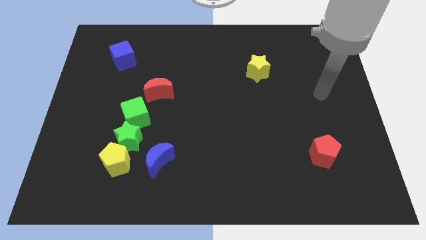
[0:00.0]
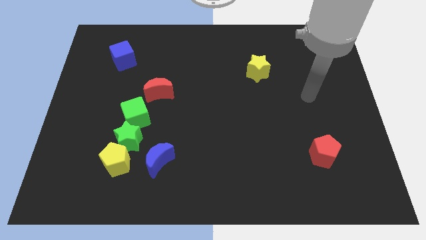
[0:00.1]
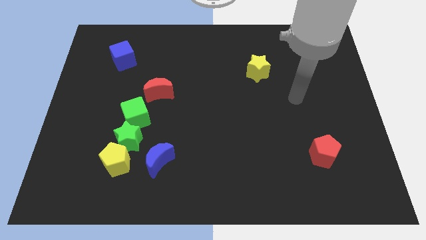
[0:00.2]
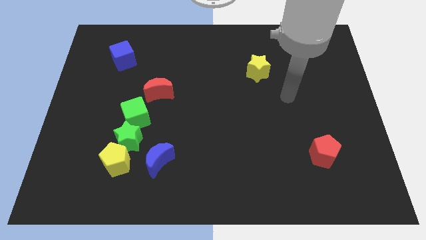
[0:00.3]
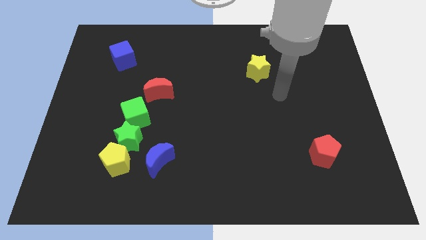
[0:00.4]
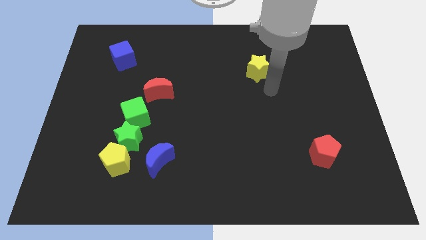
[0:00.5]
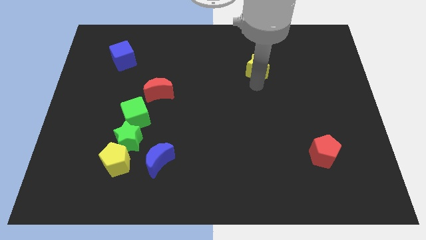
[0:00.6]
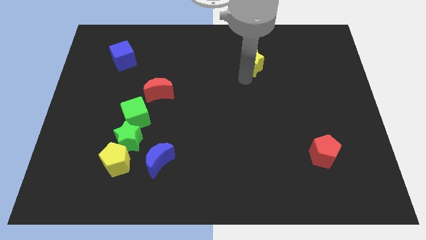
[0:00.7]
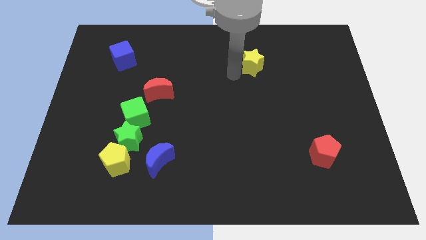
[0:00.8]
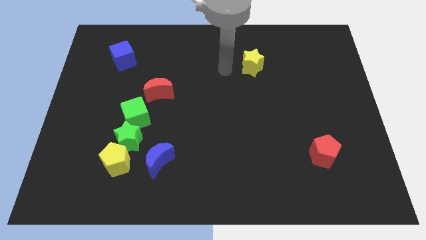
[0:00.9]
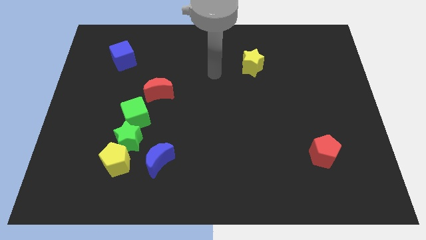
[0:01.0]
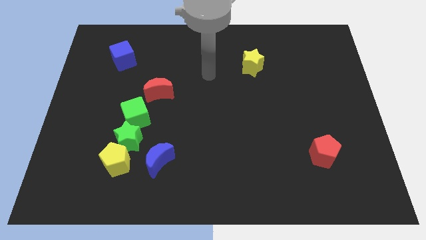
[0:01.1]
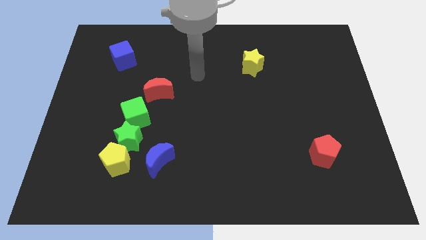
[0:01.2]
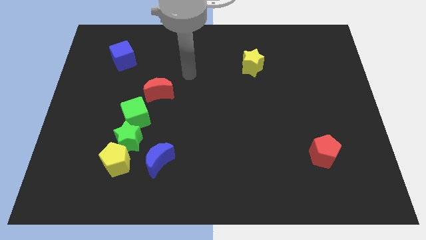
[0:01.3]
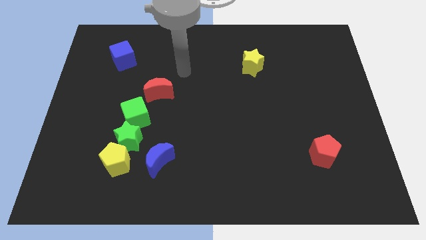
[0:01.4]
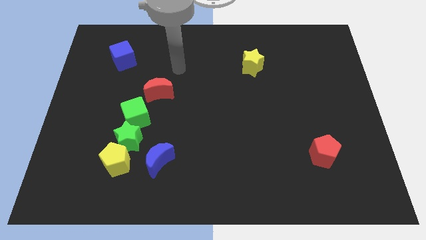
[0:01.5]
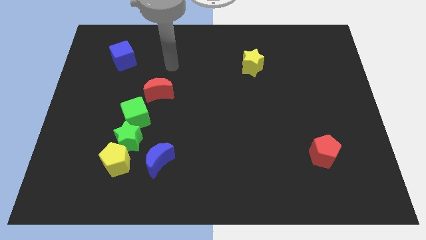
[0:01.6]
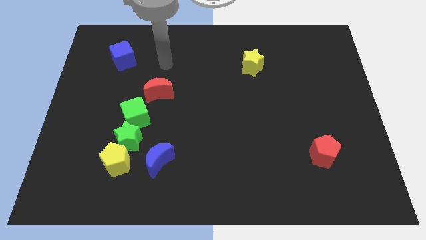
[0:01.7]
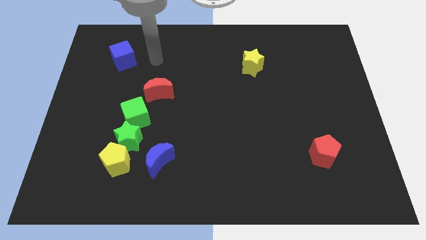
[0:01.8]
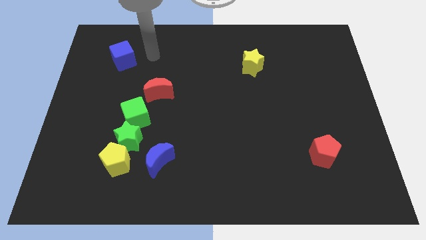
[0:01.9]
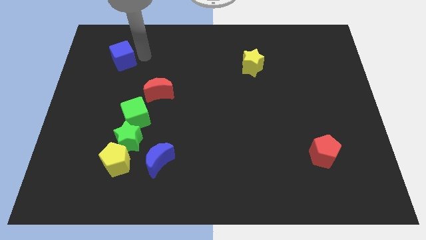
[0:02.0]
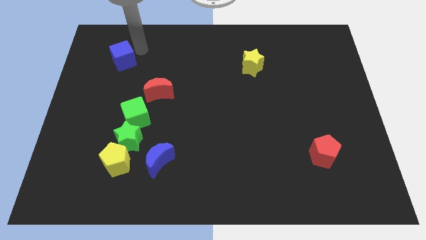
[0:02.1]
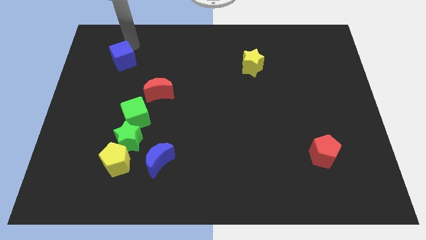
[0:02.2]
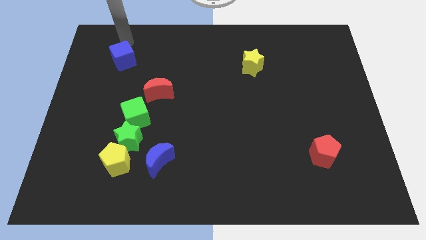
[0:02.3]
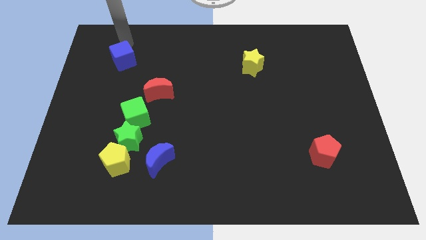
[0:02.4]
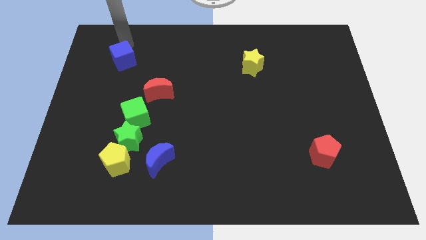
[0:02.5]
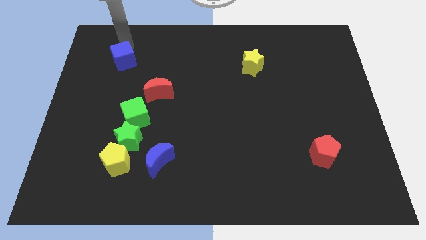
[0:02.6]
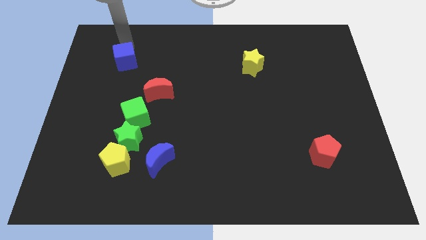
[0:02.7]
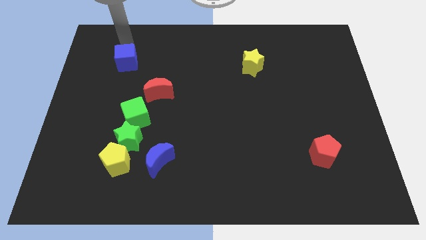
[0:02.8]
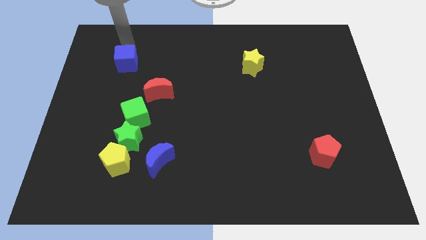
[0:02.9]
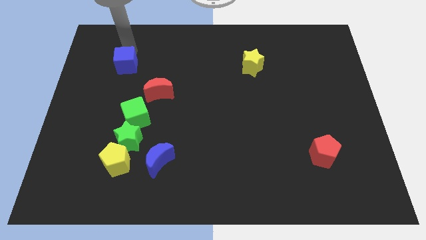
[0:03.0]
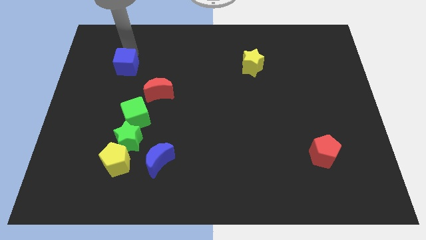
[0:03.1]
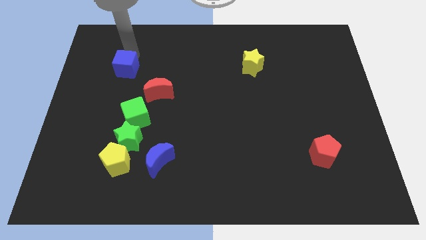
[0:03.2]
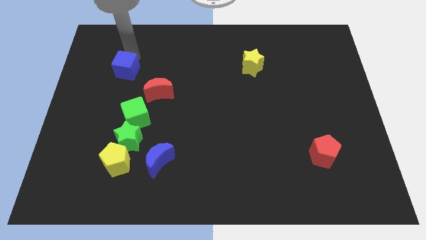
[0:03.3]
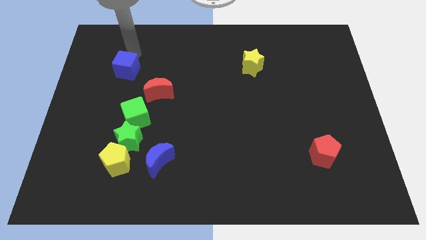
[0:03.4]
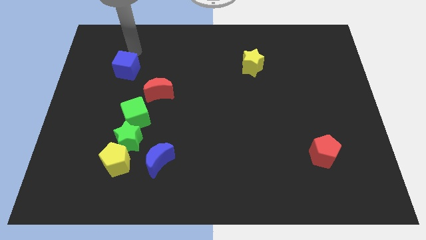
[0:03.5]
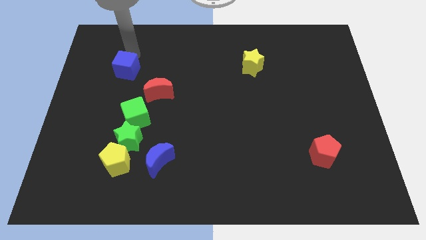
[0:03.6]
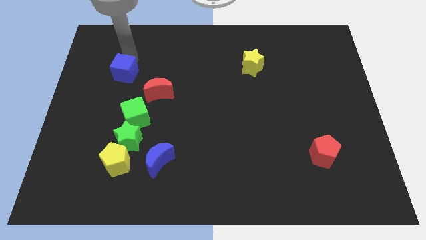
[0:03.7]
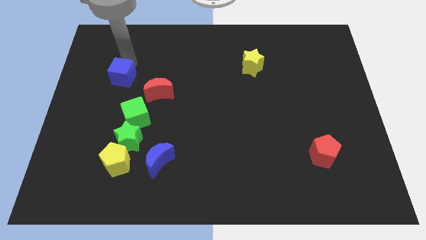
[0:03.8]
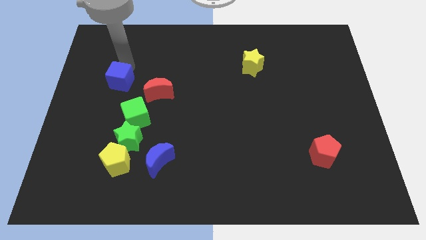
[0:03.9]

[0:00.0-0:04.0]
slide the blue cube a little bit down

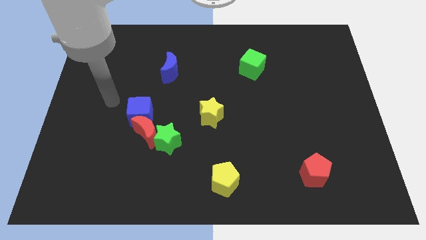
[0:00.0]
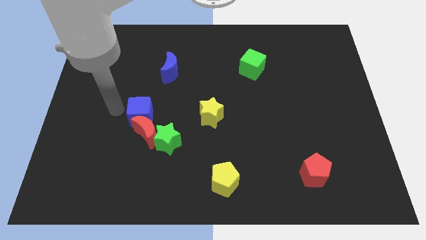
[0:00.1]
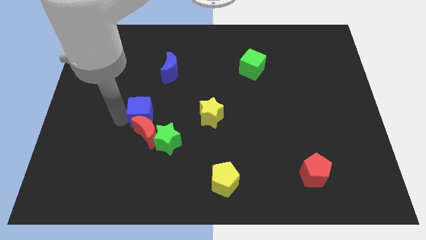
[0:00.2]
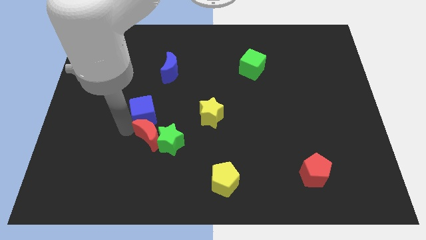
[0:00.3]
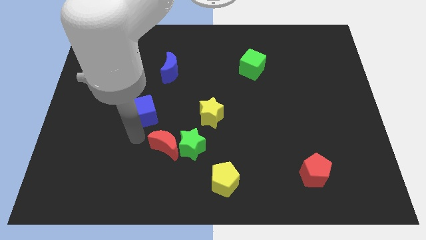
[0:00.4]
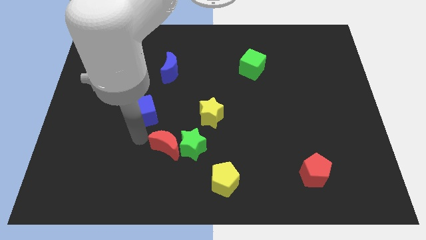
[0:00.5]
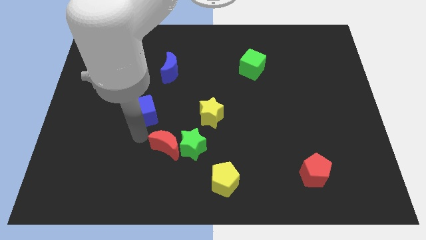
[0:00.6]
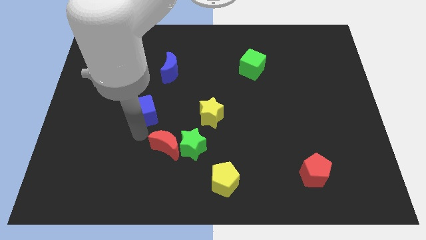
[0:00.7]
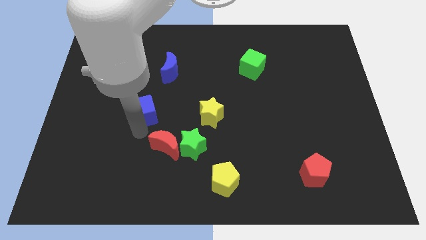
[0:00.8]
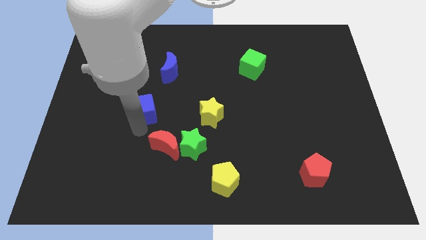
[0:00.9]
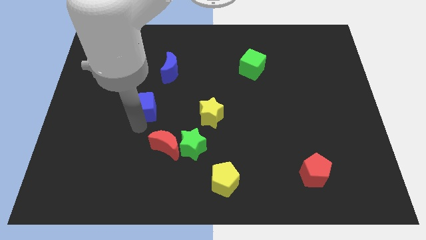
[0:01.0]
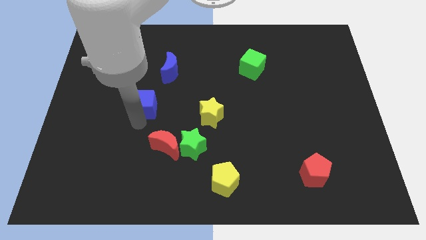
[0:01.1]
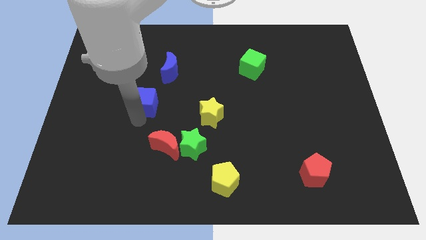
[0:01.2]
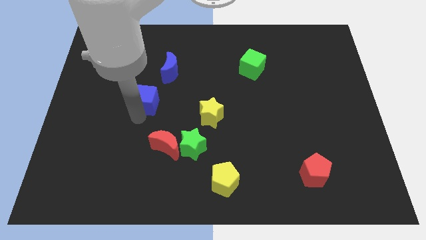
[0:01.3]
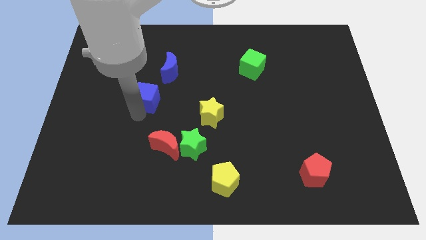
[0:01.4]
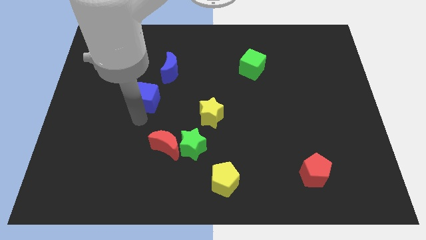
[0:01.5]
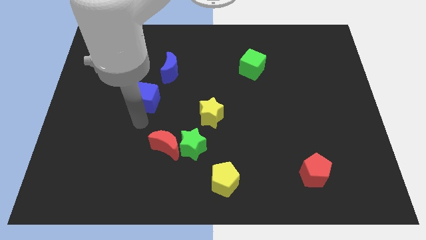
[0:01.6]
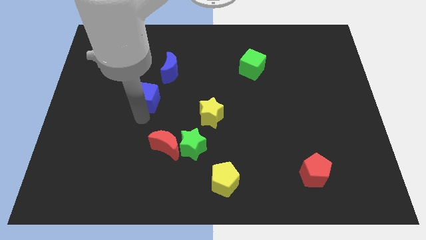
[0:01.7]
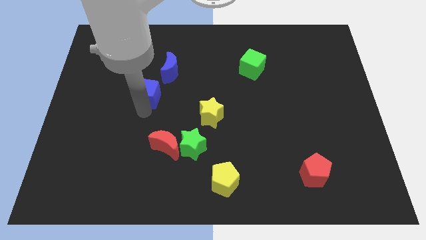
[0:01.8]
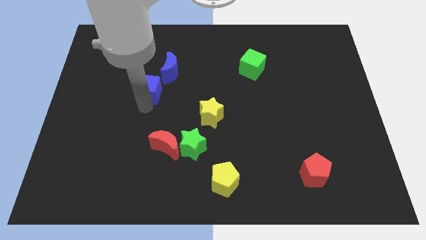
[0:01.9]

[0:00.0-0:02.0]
push the blue cube somewhat up

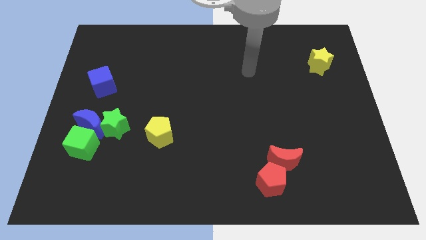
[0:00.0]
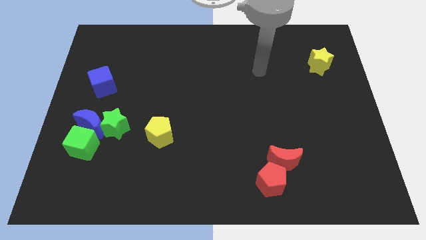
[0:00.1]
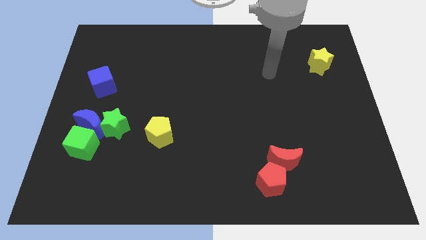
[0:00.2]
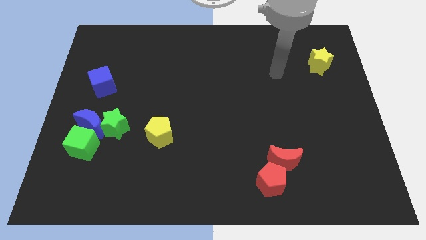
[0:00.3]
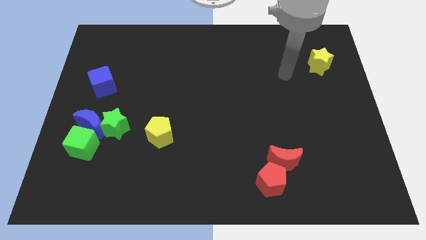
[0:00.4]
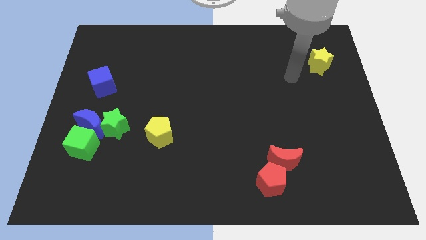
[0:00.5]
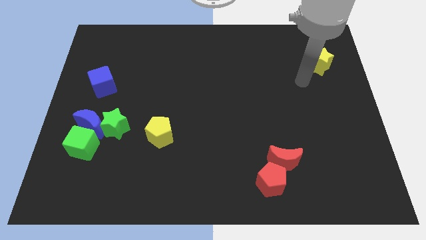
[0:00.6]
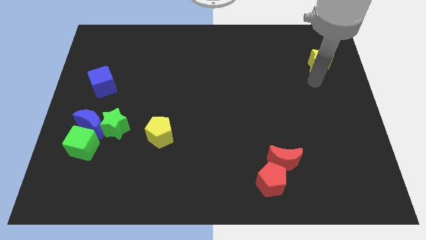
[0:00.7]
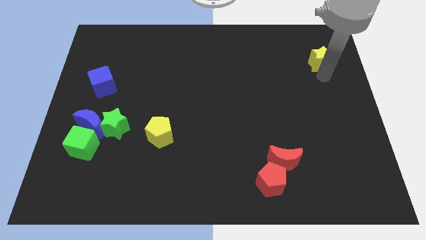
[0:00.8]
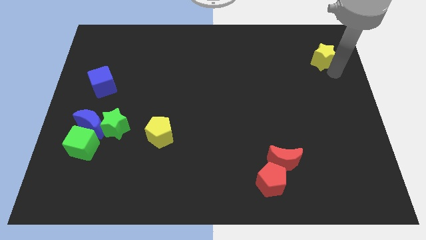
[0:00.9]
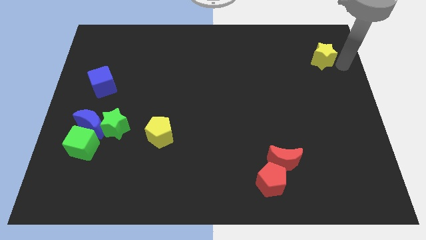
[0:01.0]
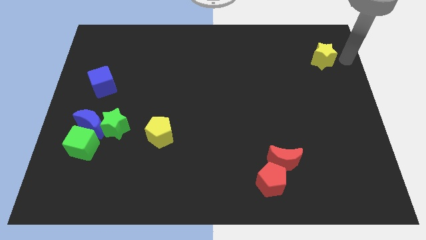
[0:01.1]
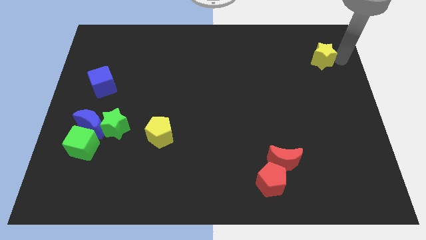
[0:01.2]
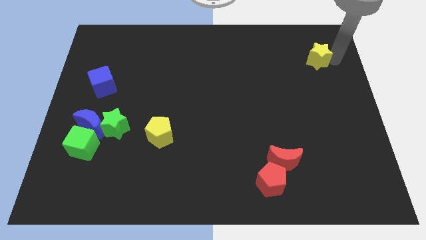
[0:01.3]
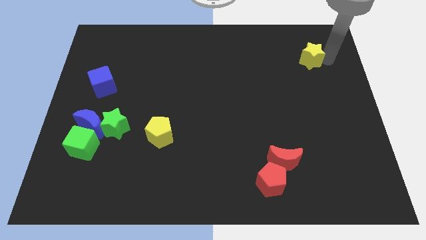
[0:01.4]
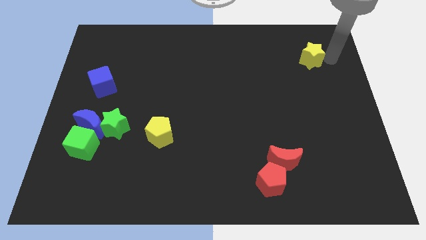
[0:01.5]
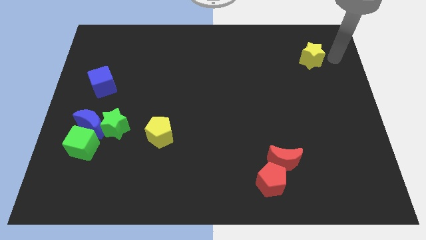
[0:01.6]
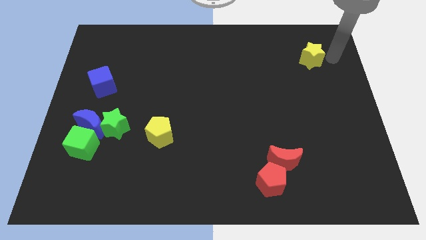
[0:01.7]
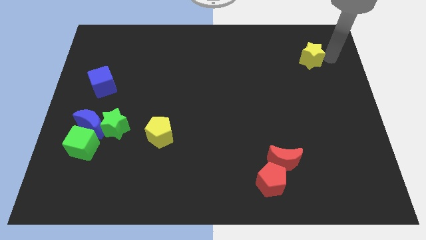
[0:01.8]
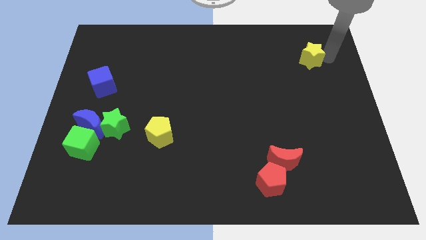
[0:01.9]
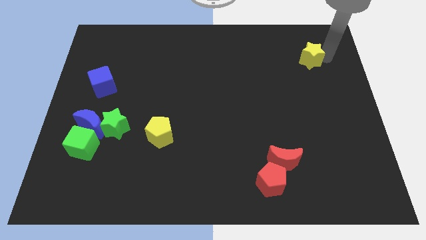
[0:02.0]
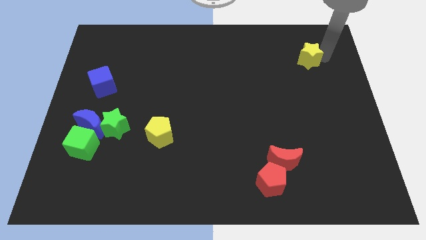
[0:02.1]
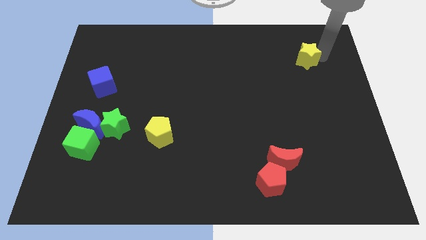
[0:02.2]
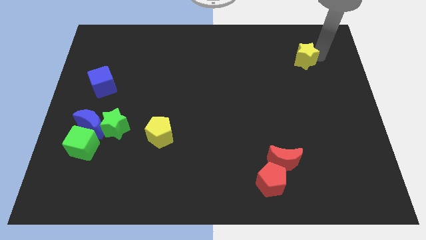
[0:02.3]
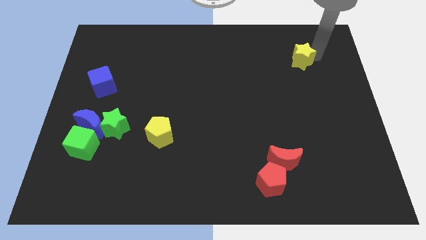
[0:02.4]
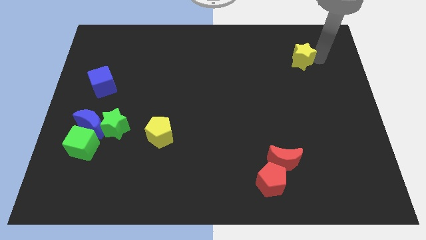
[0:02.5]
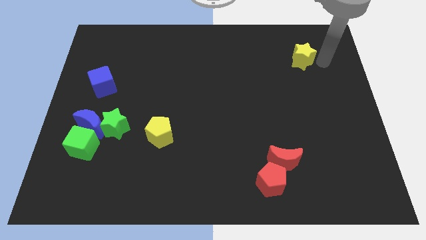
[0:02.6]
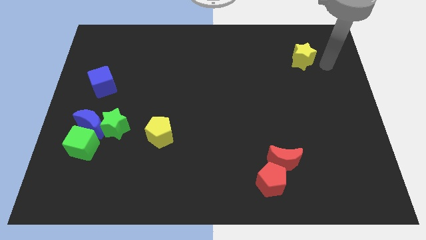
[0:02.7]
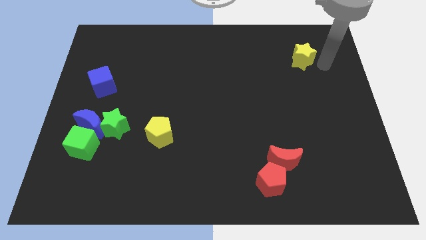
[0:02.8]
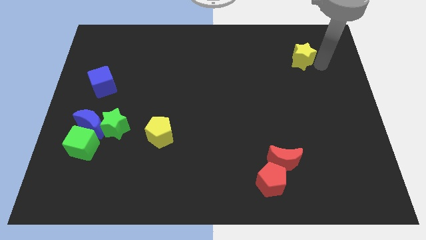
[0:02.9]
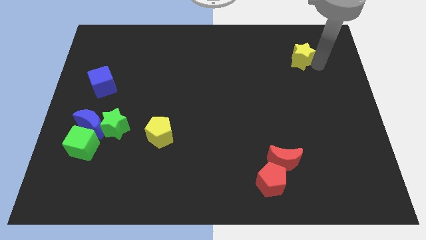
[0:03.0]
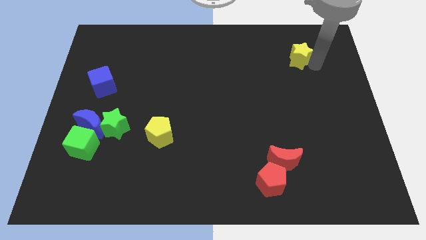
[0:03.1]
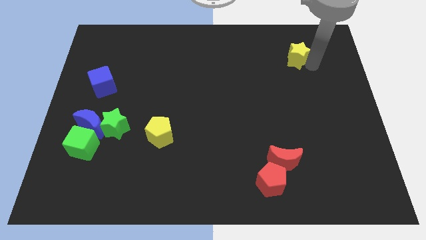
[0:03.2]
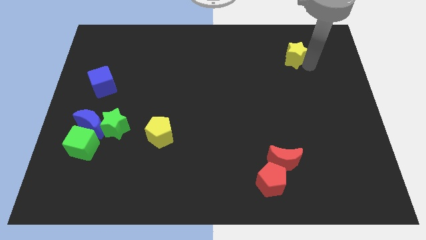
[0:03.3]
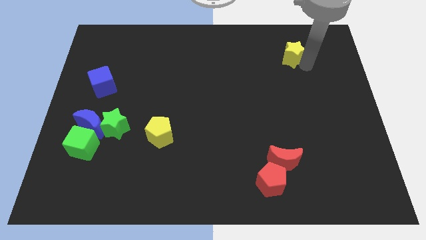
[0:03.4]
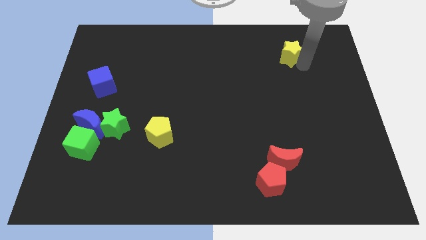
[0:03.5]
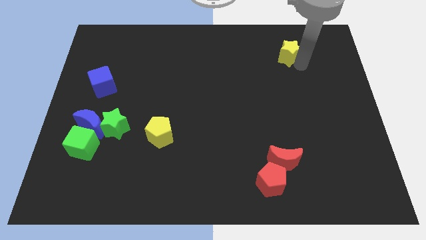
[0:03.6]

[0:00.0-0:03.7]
slightly push the yellow star left
